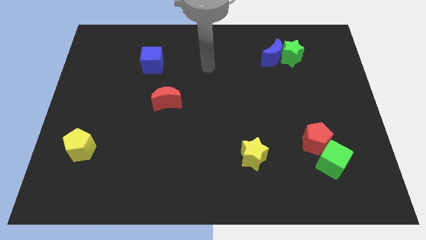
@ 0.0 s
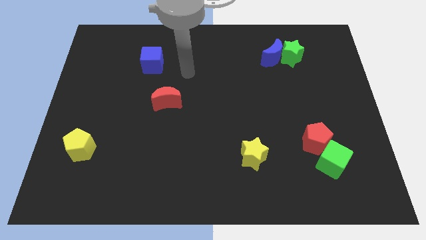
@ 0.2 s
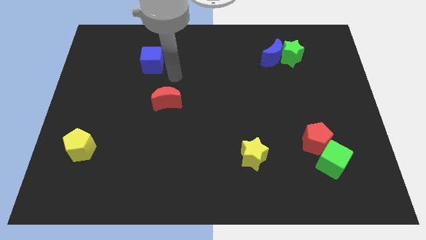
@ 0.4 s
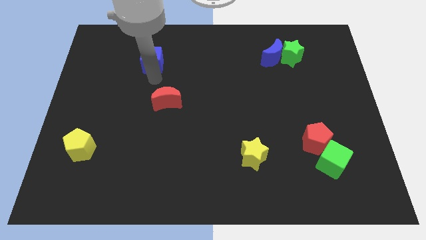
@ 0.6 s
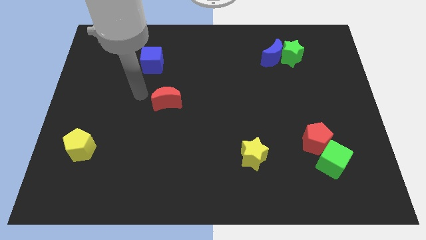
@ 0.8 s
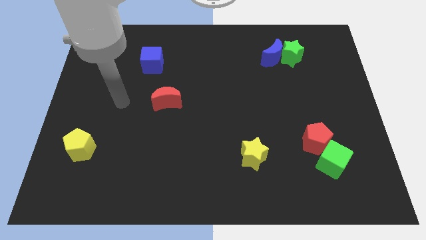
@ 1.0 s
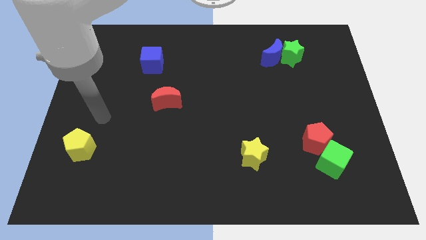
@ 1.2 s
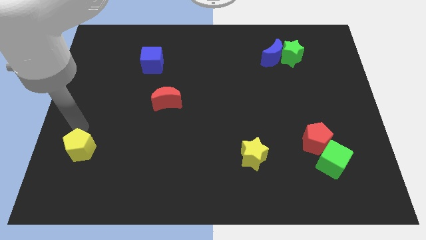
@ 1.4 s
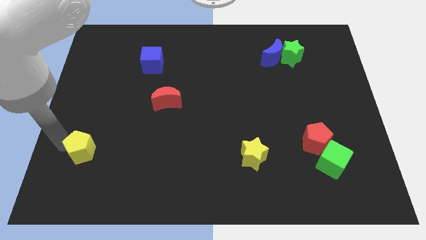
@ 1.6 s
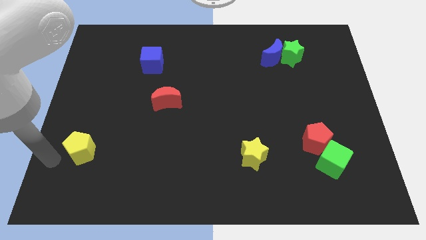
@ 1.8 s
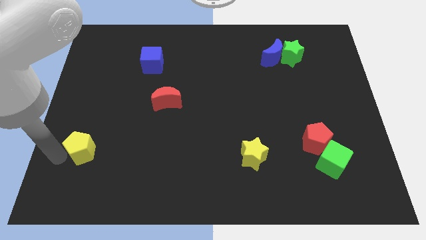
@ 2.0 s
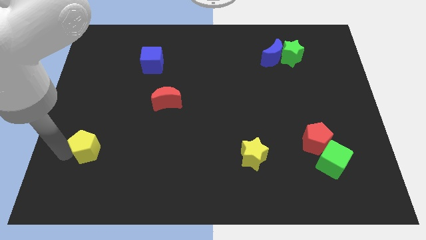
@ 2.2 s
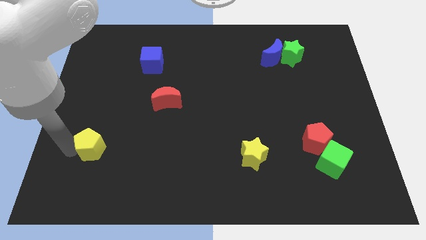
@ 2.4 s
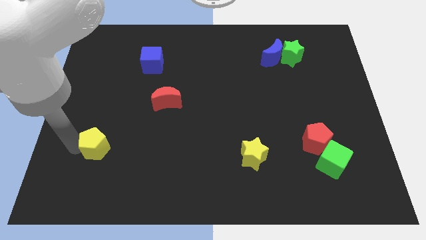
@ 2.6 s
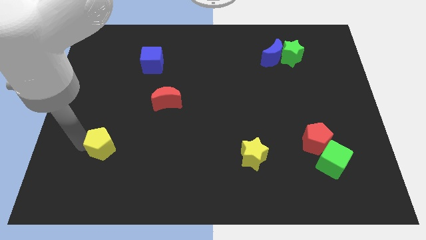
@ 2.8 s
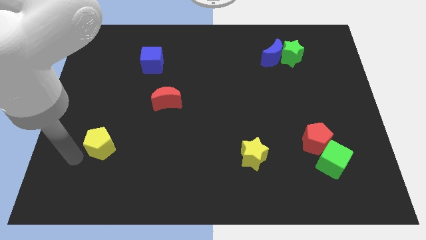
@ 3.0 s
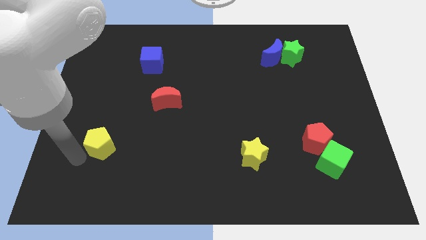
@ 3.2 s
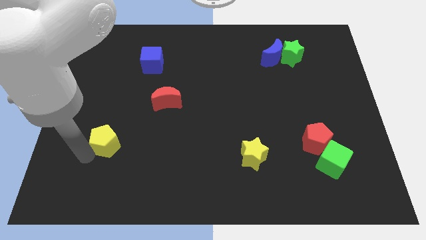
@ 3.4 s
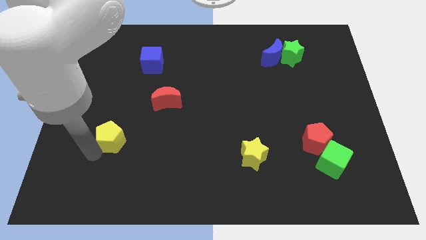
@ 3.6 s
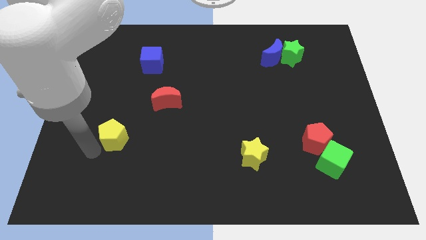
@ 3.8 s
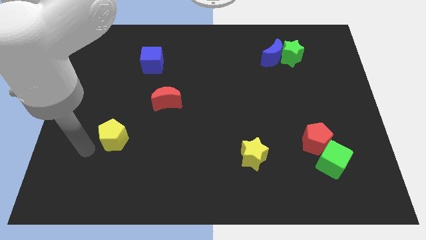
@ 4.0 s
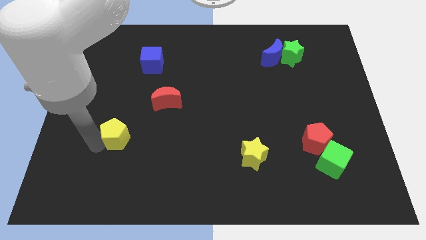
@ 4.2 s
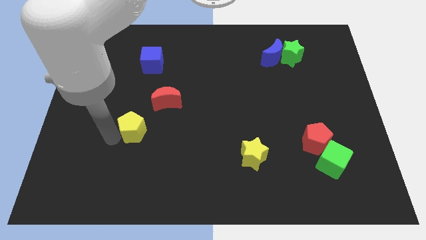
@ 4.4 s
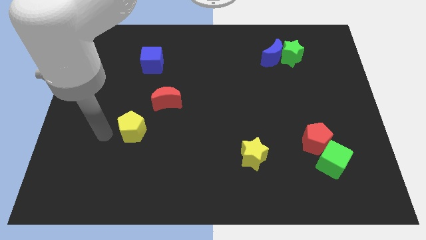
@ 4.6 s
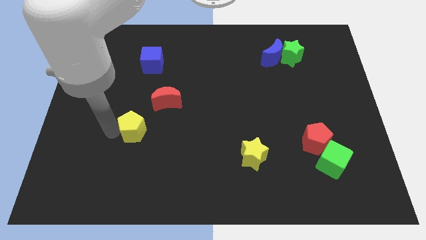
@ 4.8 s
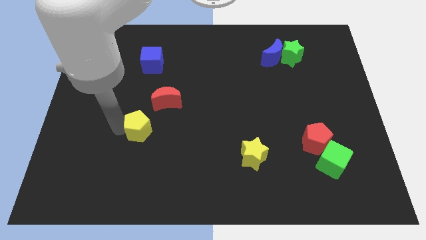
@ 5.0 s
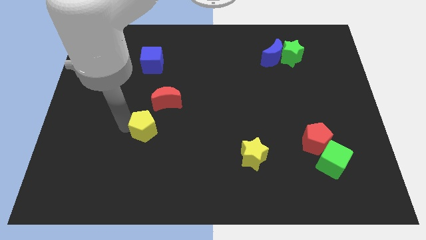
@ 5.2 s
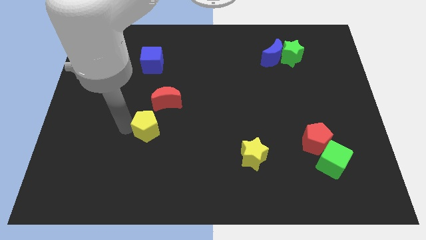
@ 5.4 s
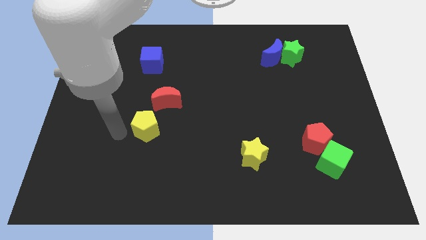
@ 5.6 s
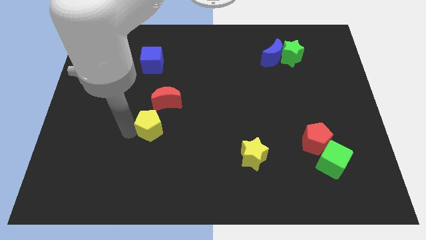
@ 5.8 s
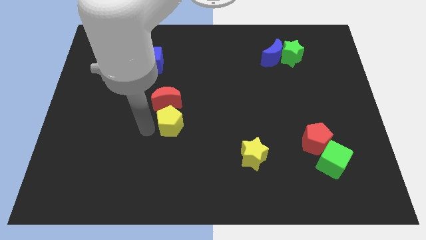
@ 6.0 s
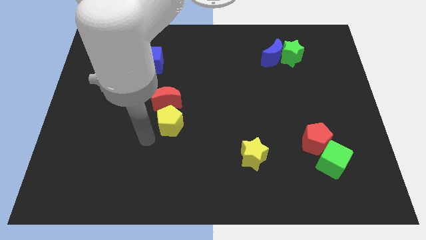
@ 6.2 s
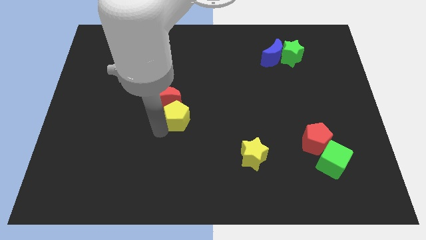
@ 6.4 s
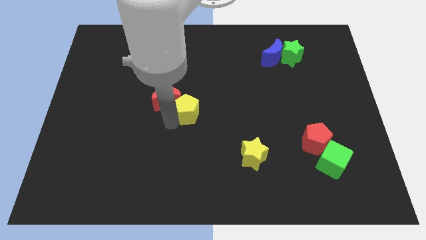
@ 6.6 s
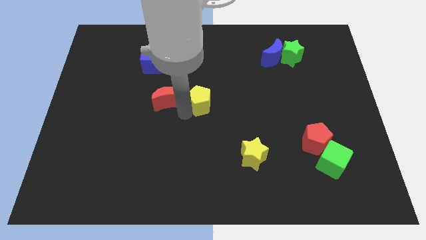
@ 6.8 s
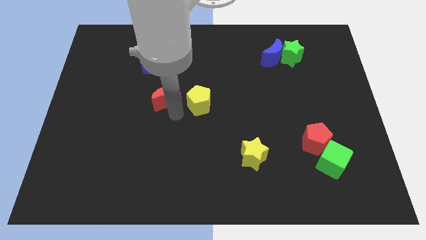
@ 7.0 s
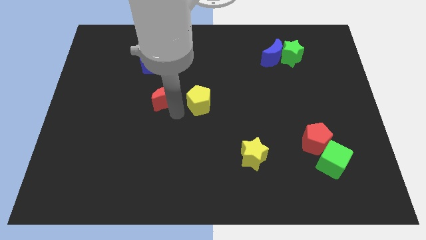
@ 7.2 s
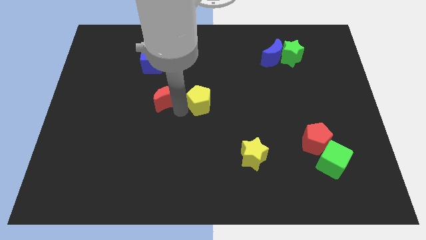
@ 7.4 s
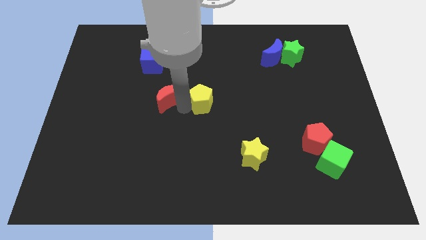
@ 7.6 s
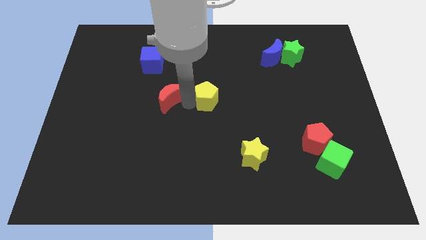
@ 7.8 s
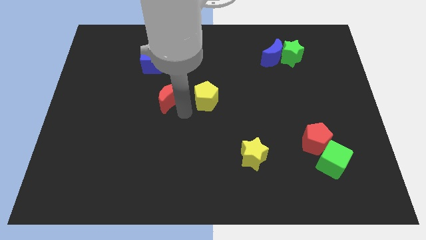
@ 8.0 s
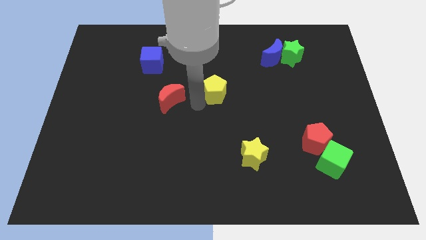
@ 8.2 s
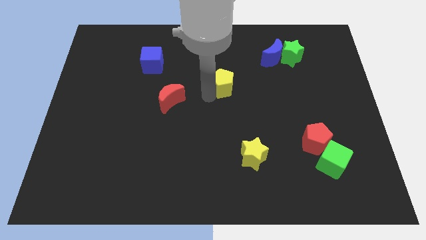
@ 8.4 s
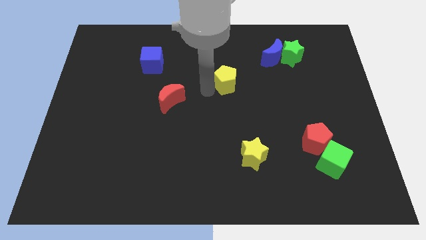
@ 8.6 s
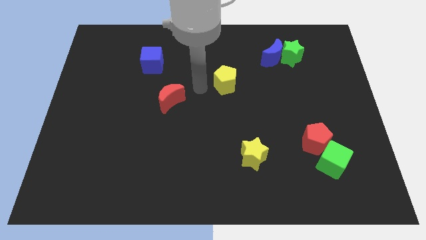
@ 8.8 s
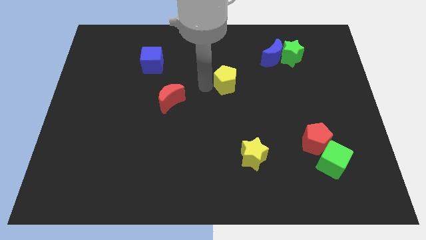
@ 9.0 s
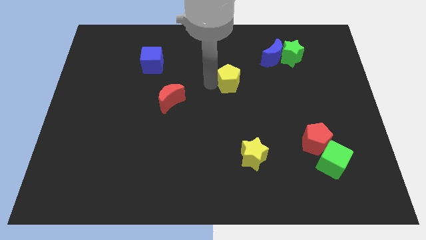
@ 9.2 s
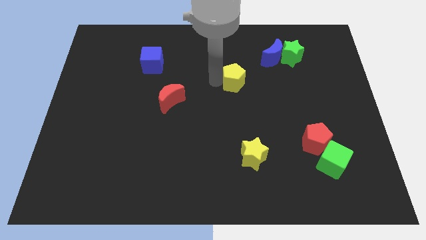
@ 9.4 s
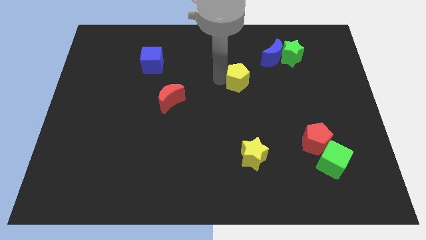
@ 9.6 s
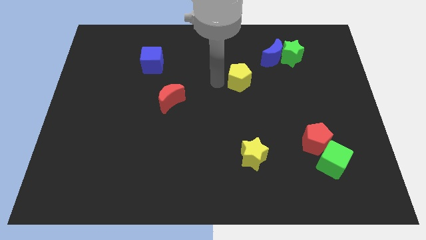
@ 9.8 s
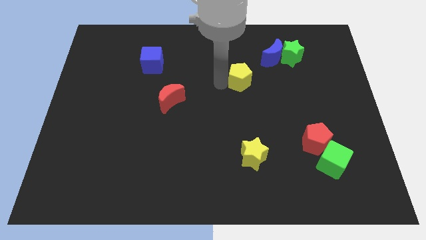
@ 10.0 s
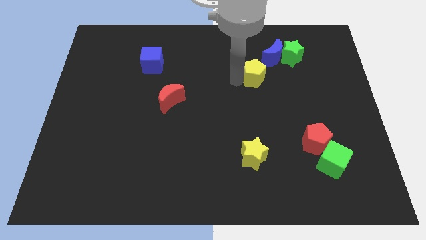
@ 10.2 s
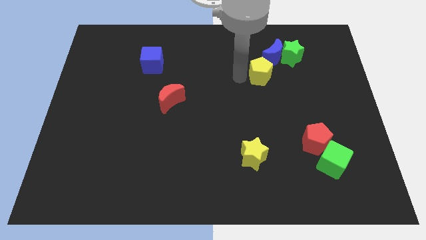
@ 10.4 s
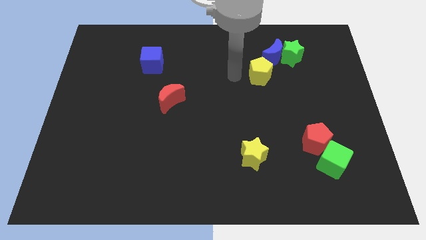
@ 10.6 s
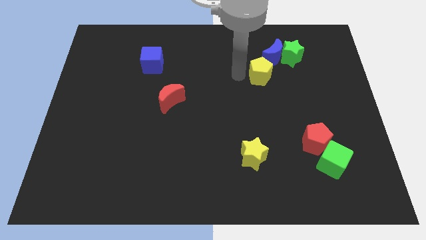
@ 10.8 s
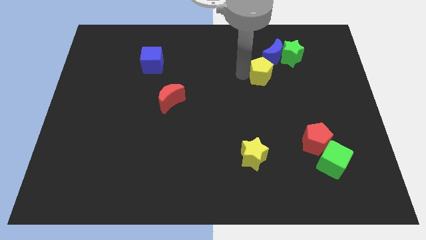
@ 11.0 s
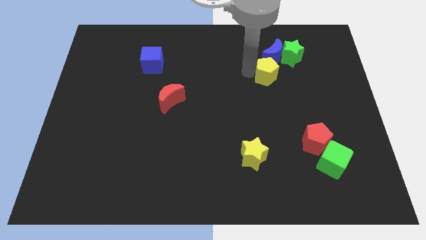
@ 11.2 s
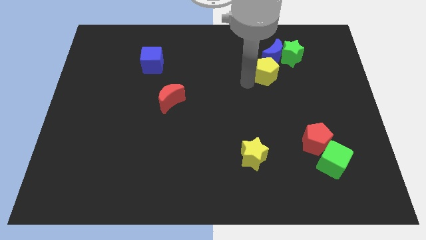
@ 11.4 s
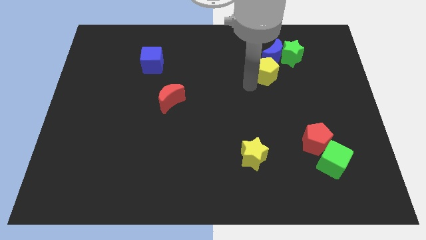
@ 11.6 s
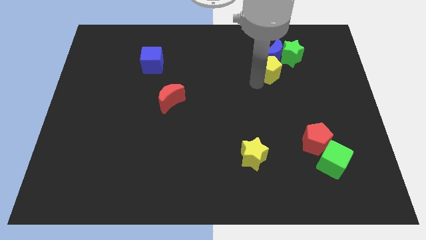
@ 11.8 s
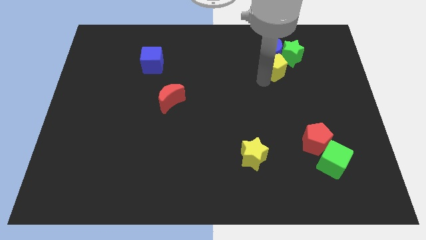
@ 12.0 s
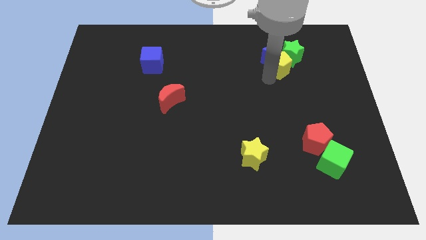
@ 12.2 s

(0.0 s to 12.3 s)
move the yellow pentagon next to the green star

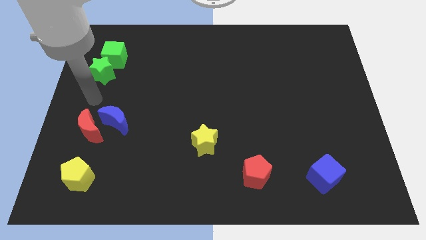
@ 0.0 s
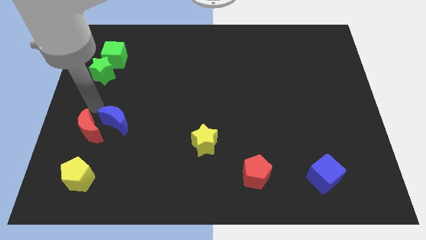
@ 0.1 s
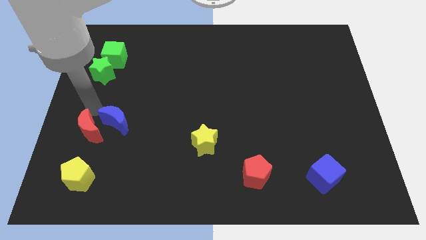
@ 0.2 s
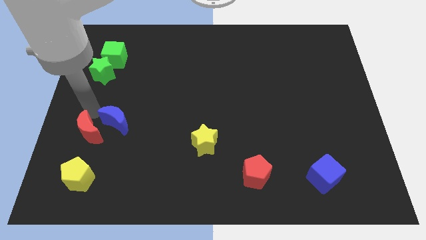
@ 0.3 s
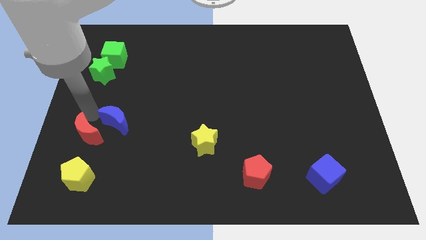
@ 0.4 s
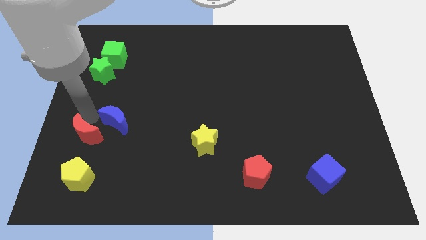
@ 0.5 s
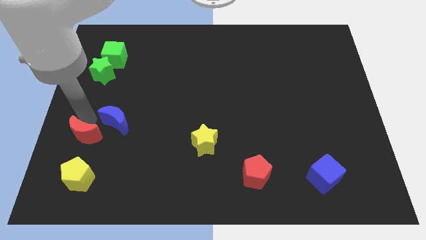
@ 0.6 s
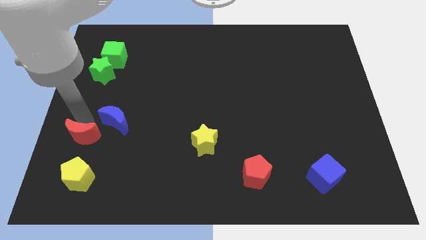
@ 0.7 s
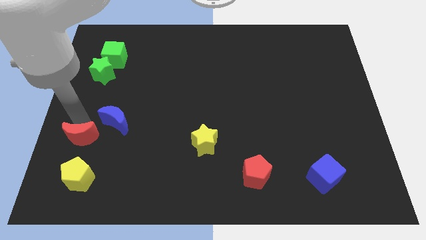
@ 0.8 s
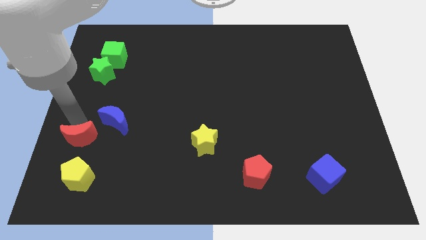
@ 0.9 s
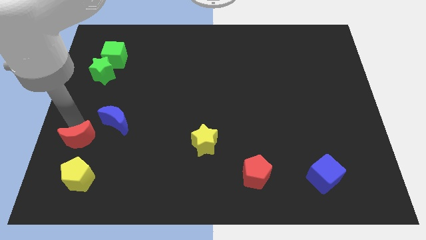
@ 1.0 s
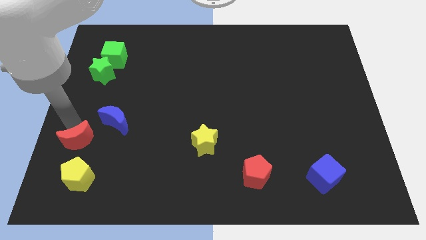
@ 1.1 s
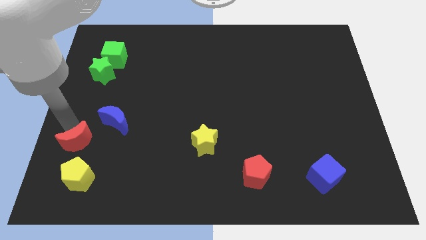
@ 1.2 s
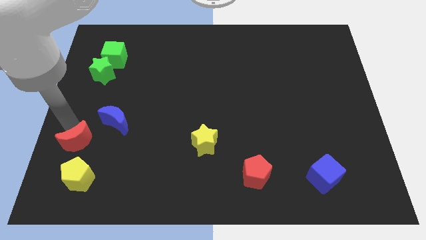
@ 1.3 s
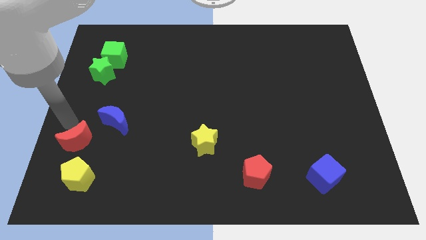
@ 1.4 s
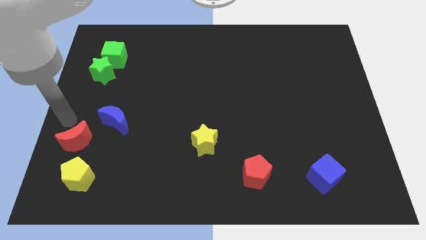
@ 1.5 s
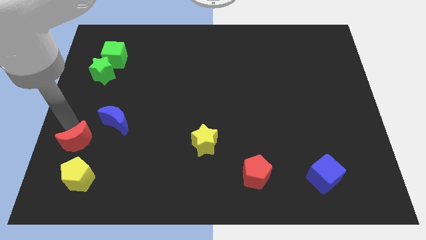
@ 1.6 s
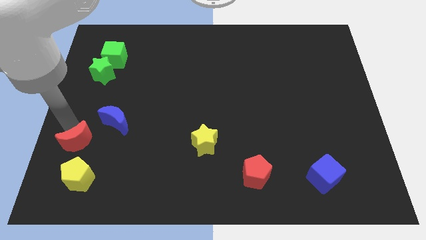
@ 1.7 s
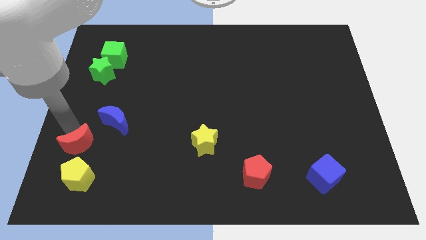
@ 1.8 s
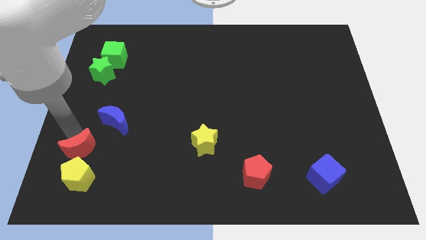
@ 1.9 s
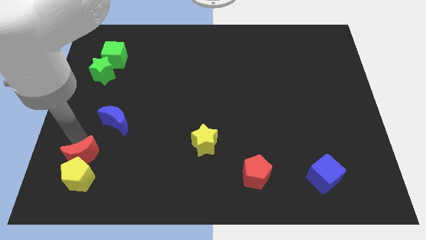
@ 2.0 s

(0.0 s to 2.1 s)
push the red moon close to the yellow pentagon
